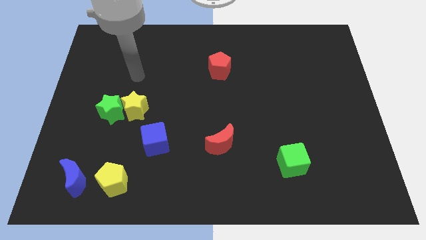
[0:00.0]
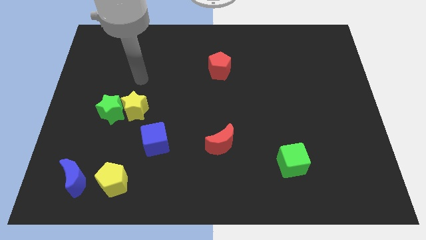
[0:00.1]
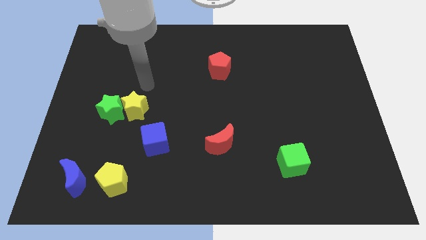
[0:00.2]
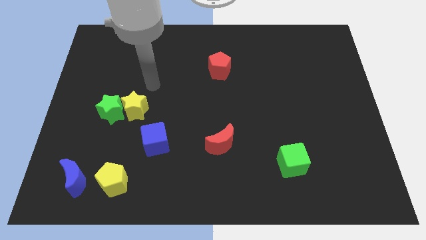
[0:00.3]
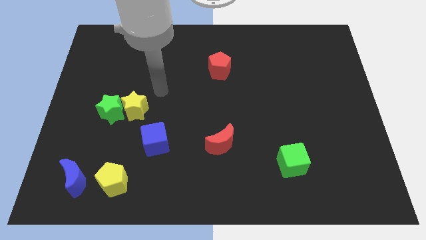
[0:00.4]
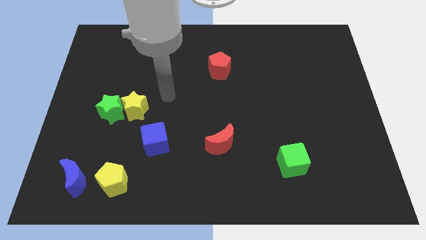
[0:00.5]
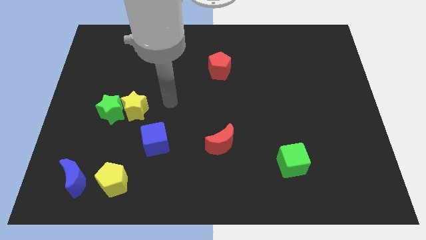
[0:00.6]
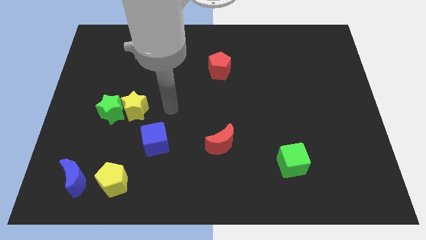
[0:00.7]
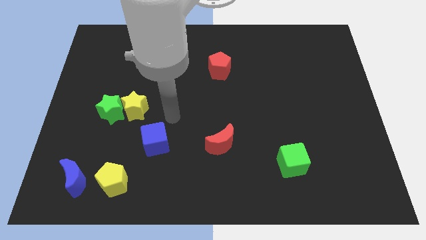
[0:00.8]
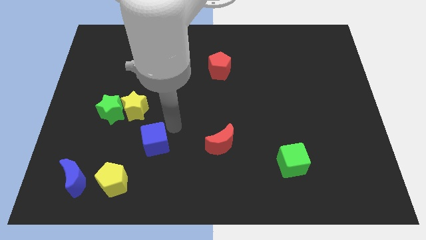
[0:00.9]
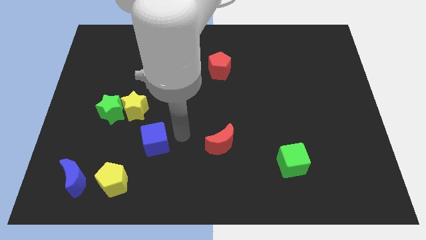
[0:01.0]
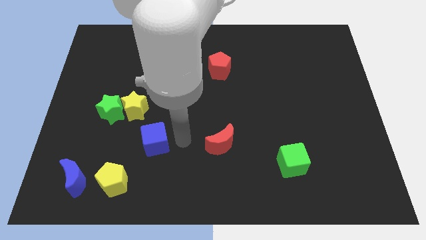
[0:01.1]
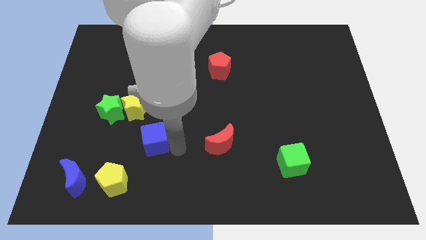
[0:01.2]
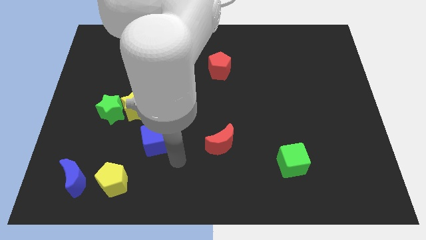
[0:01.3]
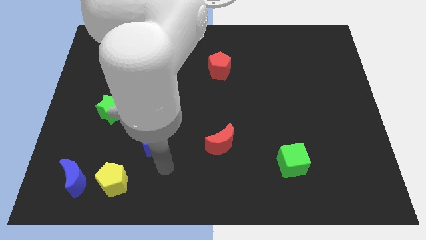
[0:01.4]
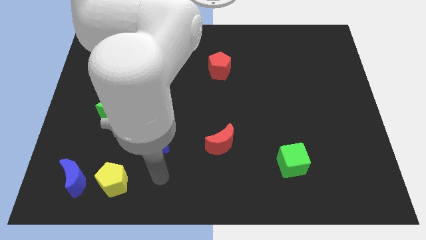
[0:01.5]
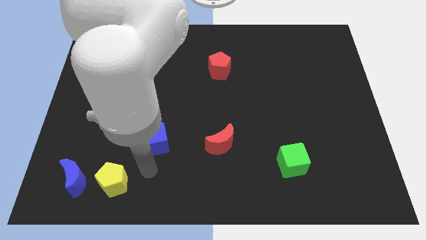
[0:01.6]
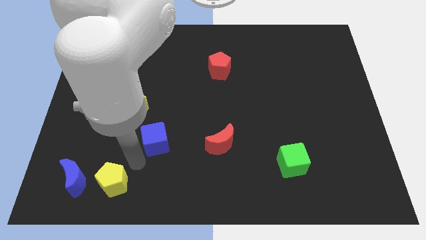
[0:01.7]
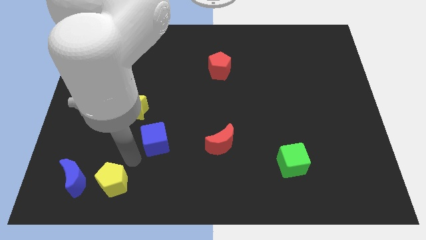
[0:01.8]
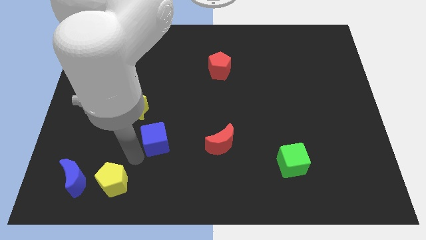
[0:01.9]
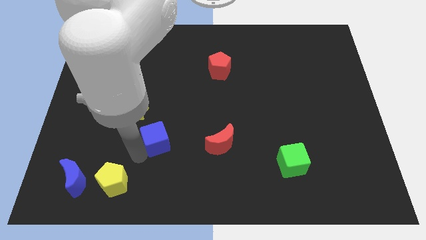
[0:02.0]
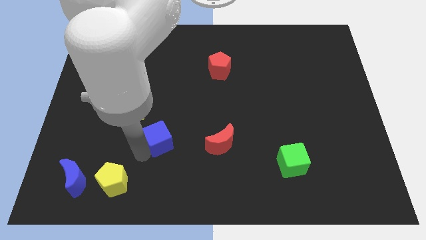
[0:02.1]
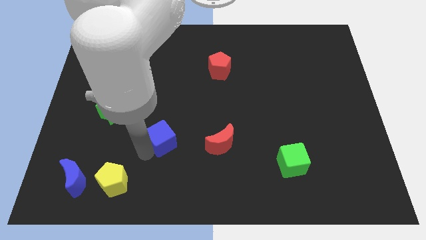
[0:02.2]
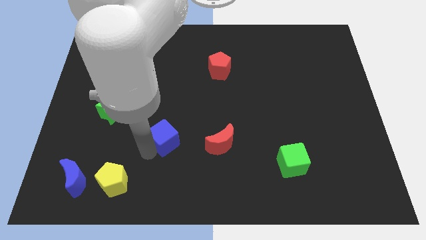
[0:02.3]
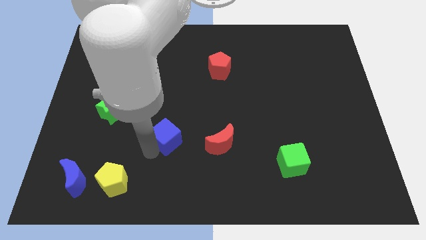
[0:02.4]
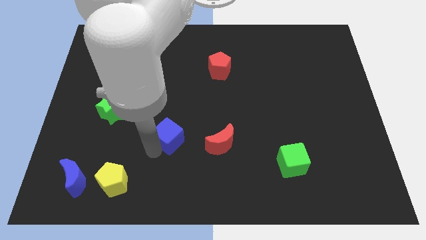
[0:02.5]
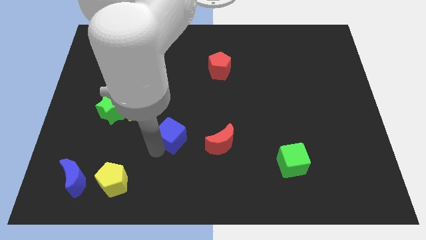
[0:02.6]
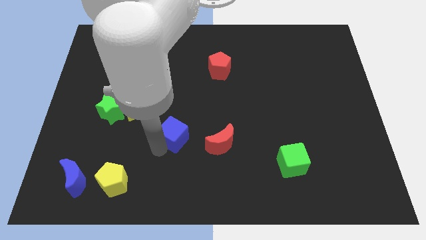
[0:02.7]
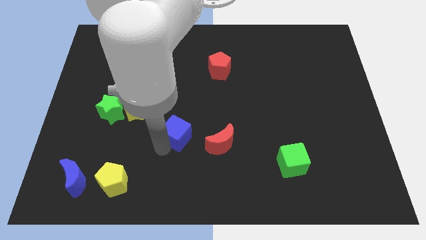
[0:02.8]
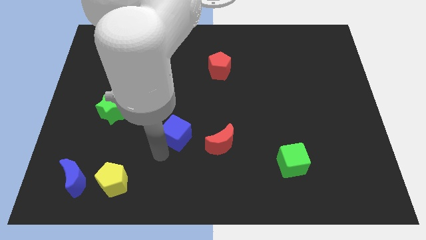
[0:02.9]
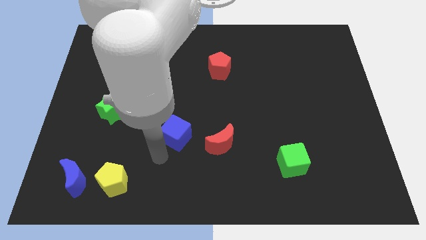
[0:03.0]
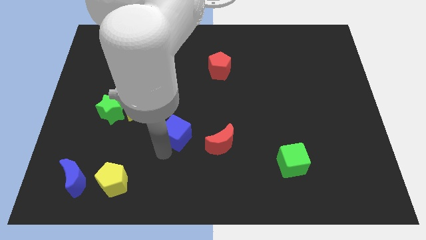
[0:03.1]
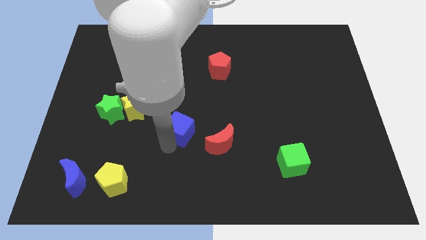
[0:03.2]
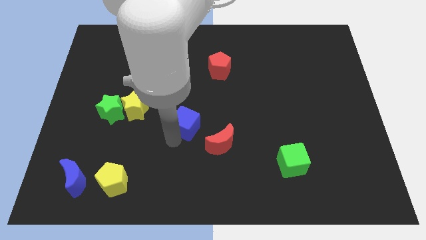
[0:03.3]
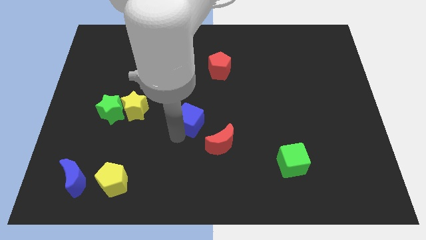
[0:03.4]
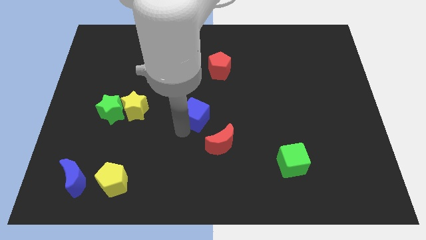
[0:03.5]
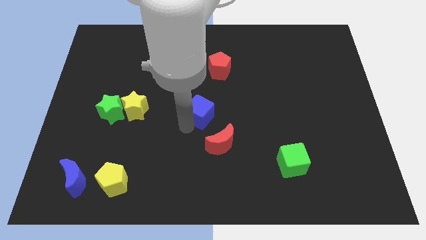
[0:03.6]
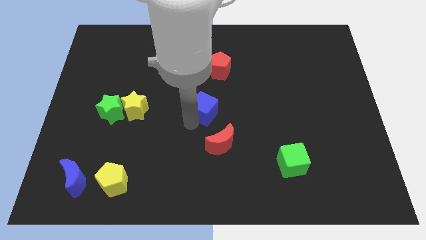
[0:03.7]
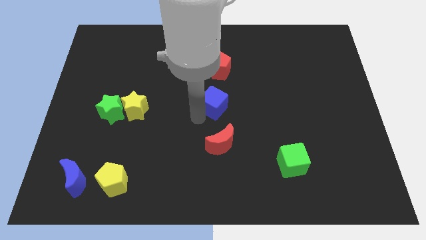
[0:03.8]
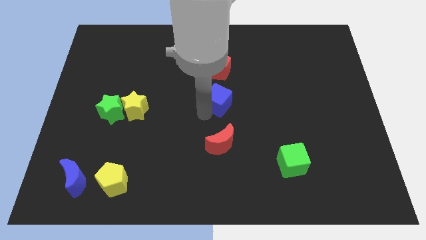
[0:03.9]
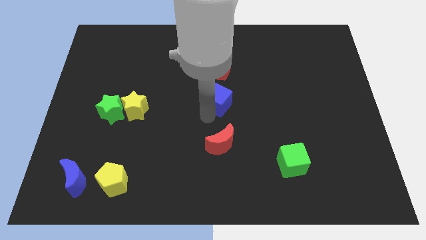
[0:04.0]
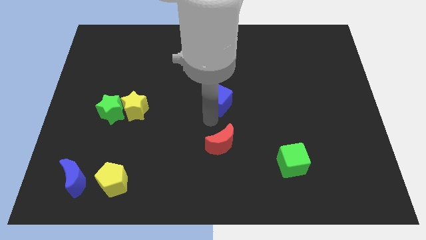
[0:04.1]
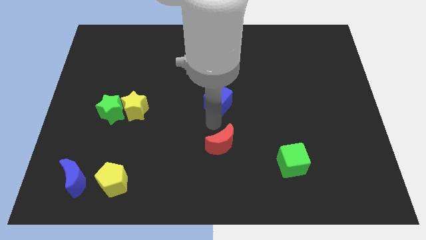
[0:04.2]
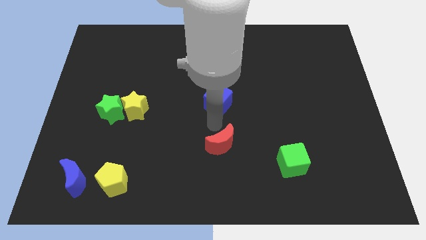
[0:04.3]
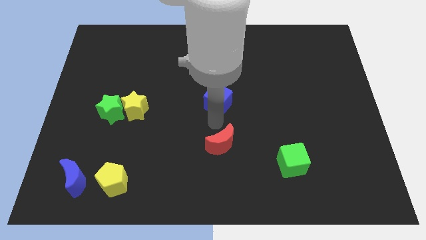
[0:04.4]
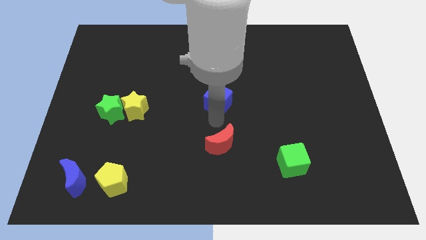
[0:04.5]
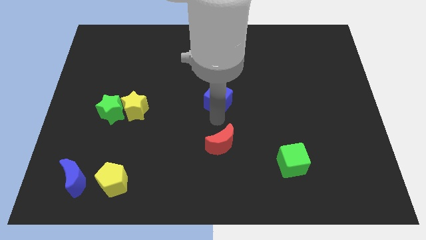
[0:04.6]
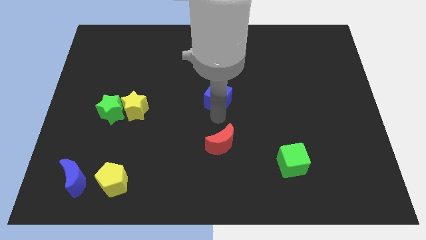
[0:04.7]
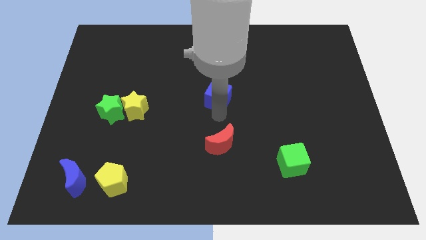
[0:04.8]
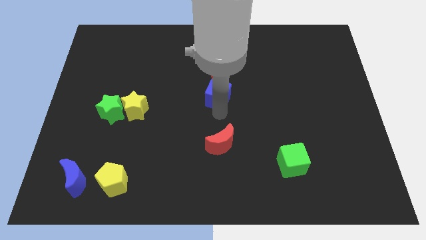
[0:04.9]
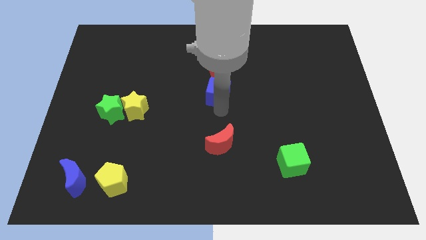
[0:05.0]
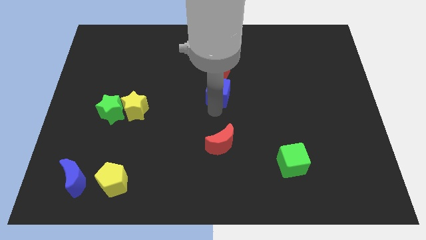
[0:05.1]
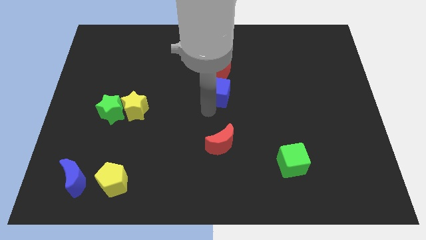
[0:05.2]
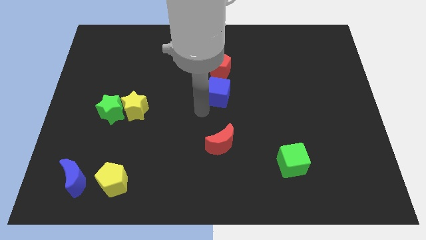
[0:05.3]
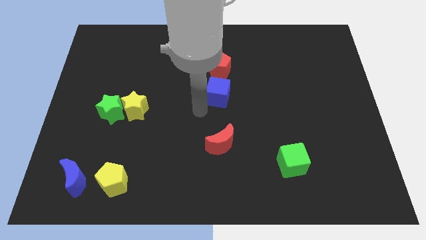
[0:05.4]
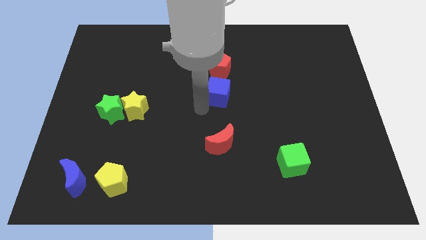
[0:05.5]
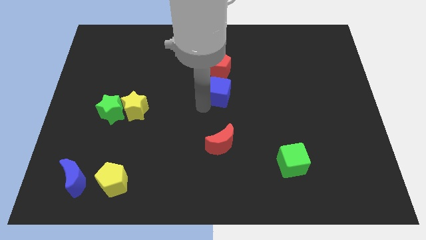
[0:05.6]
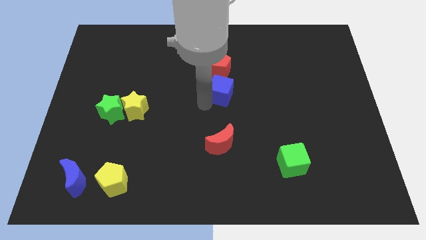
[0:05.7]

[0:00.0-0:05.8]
push the blue cube up and to the right

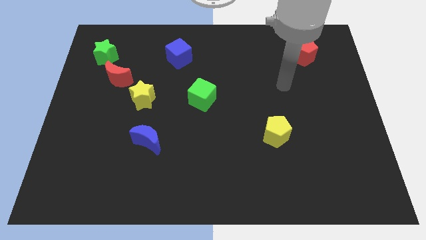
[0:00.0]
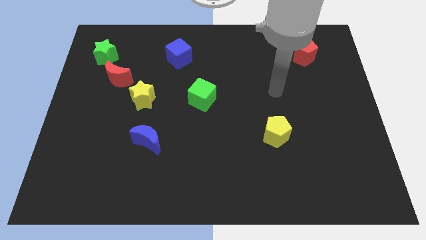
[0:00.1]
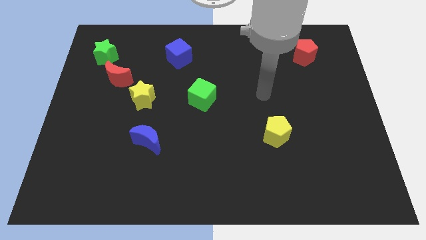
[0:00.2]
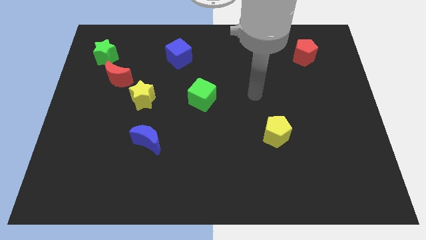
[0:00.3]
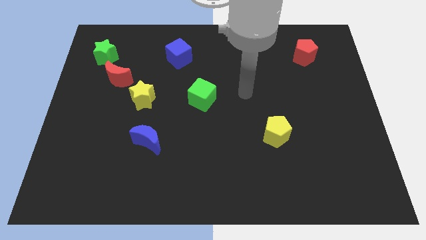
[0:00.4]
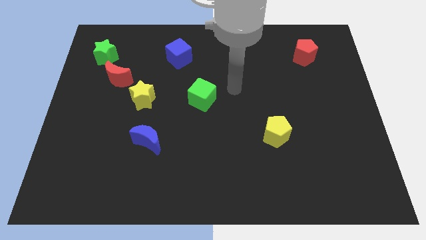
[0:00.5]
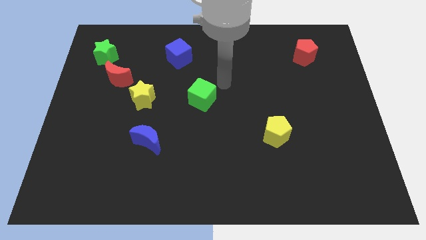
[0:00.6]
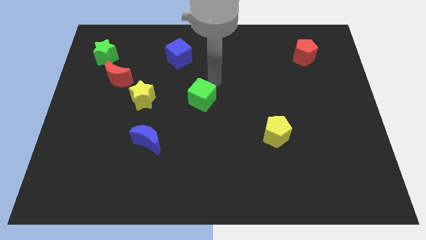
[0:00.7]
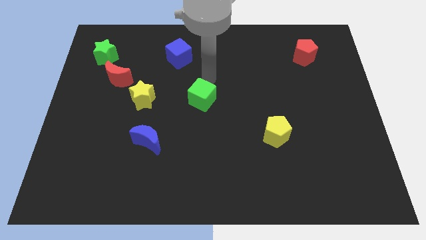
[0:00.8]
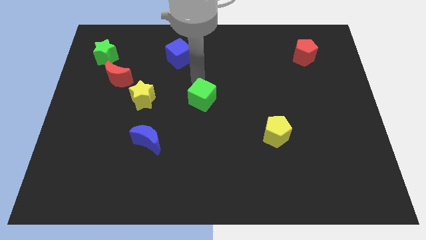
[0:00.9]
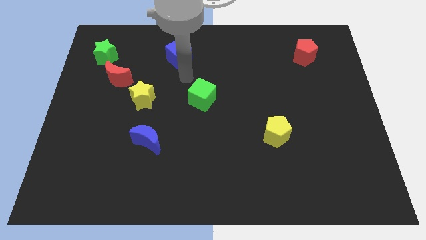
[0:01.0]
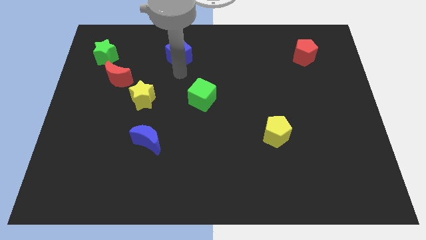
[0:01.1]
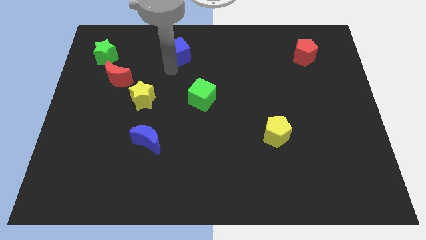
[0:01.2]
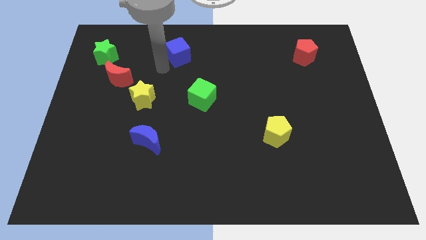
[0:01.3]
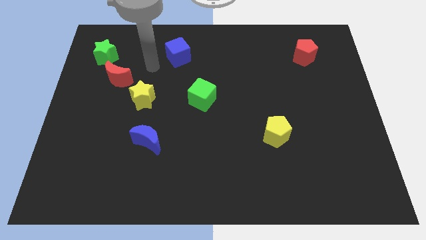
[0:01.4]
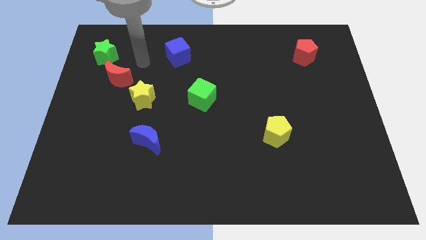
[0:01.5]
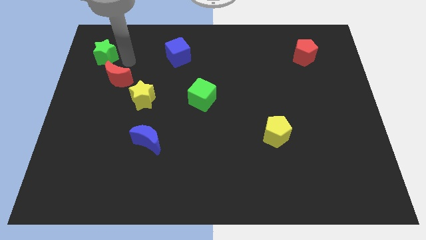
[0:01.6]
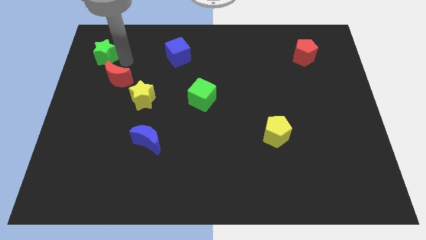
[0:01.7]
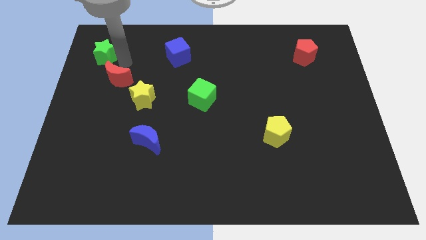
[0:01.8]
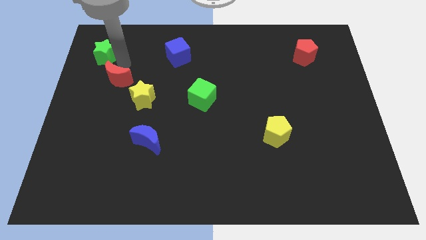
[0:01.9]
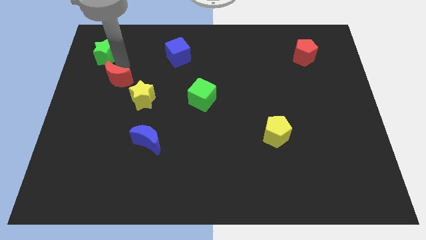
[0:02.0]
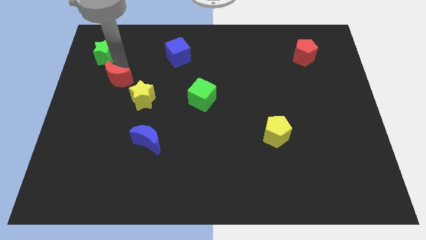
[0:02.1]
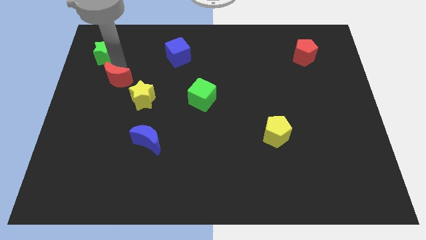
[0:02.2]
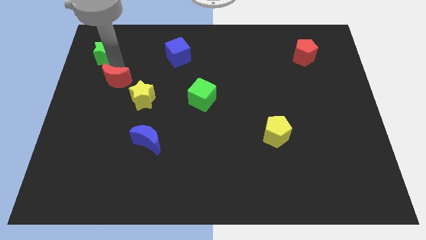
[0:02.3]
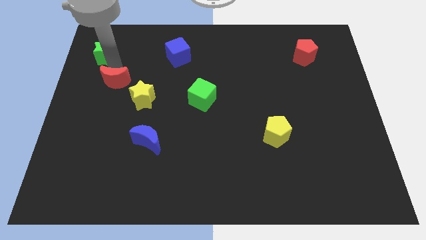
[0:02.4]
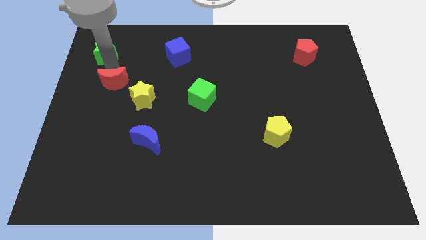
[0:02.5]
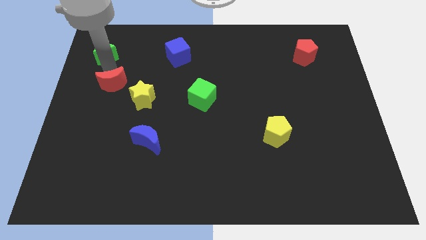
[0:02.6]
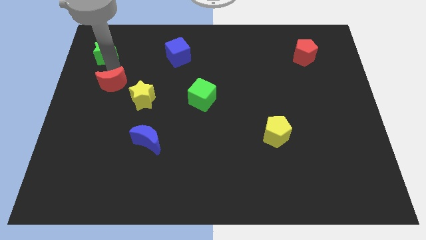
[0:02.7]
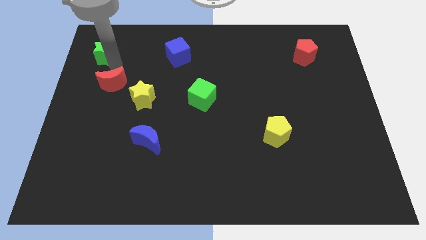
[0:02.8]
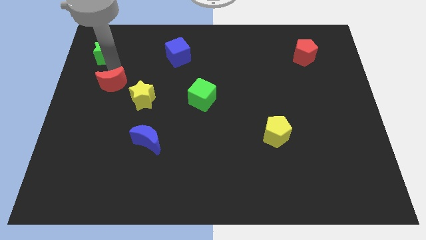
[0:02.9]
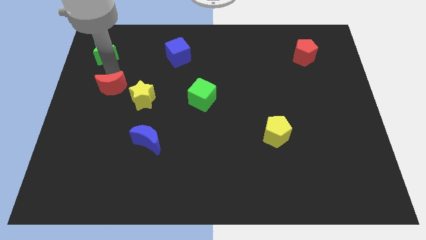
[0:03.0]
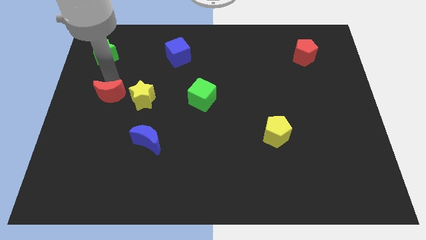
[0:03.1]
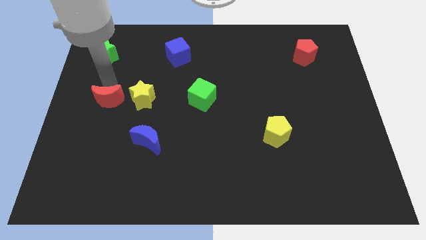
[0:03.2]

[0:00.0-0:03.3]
slide the red moon downwards slightly
